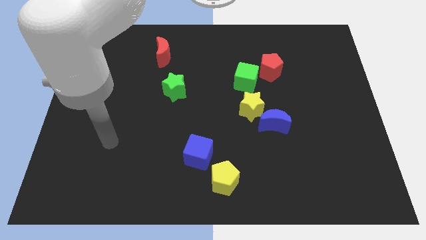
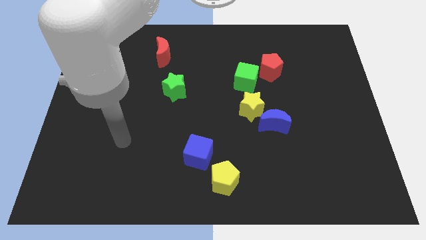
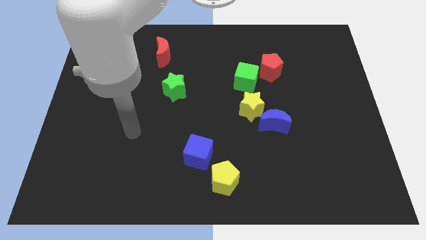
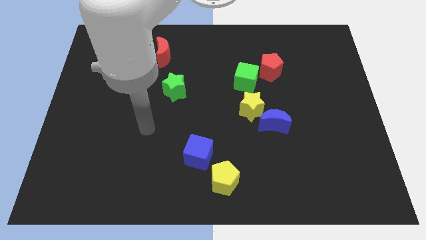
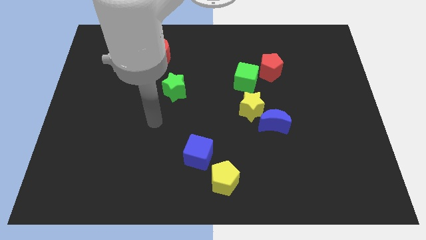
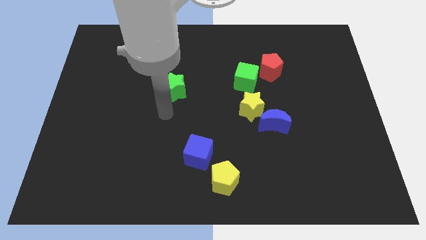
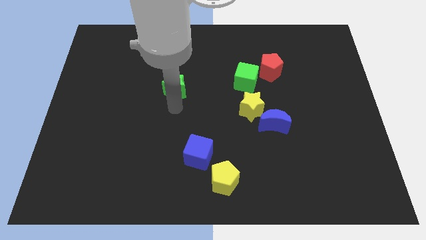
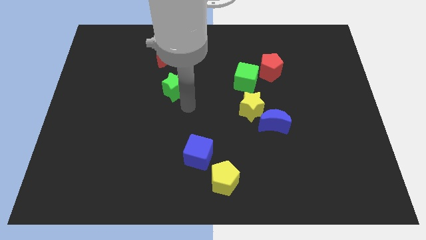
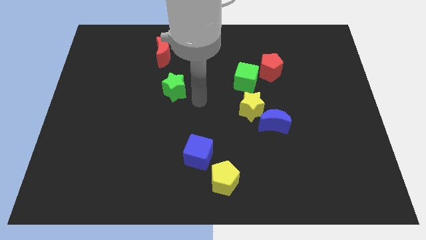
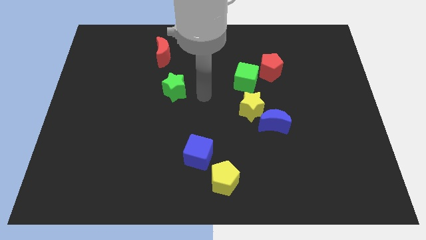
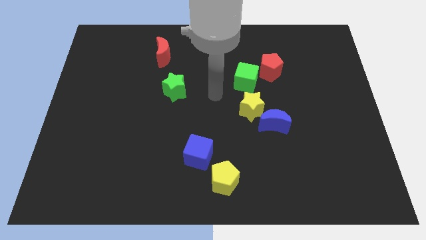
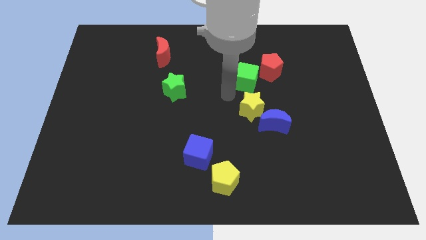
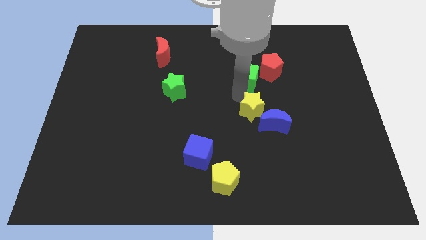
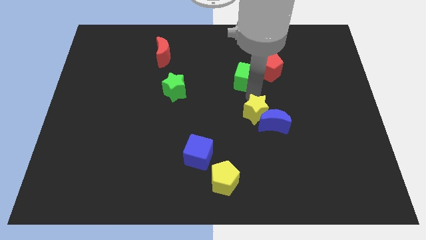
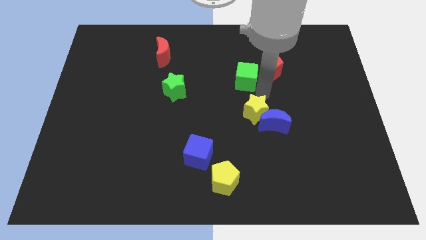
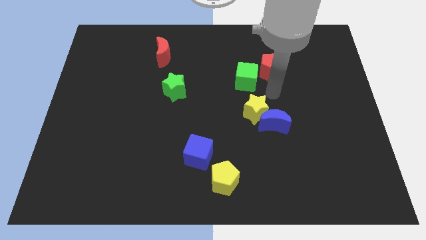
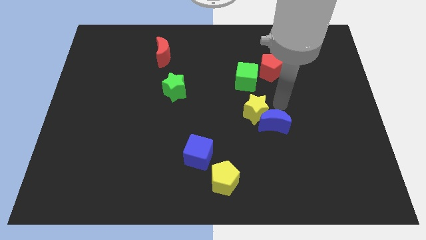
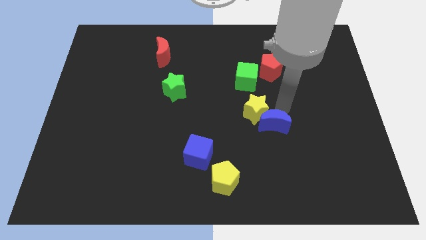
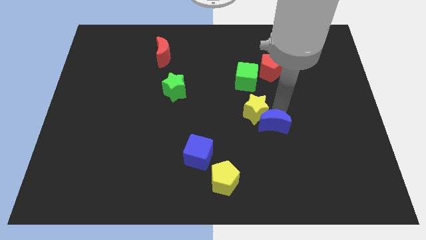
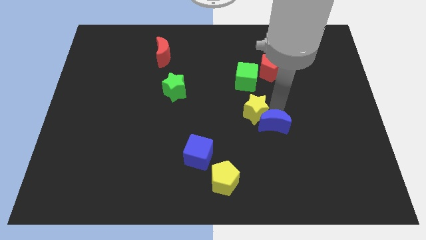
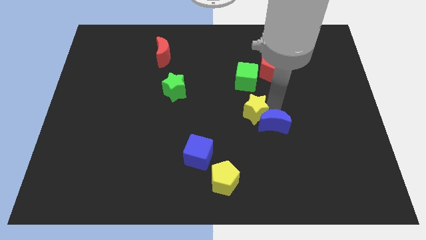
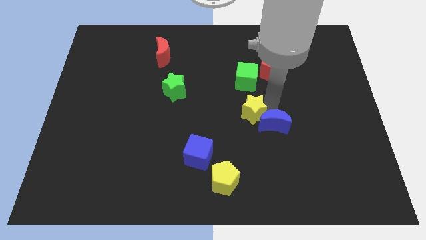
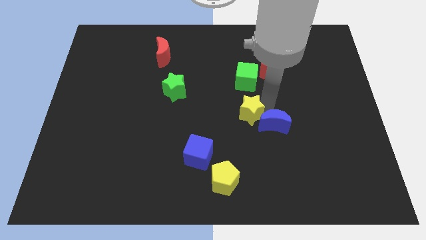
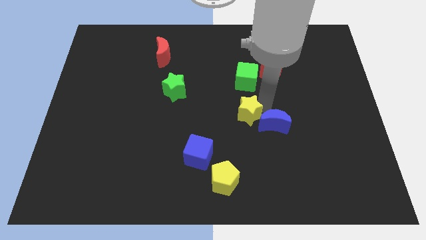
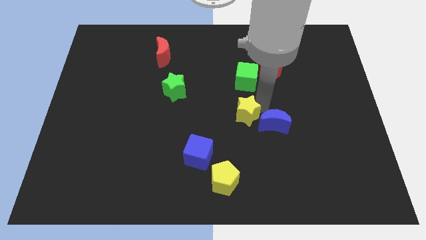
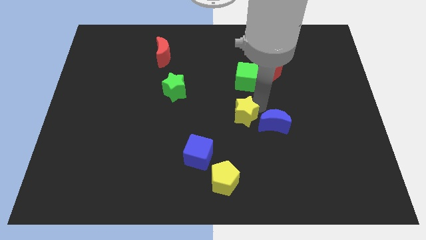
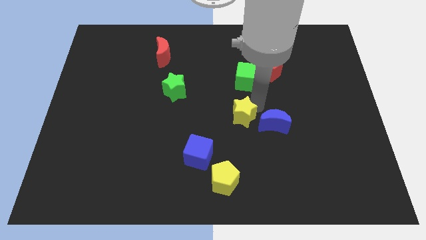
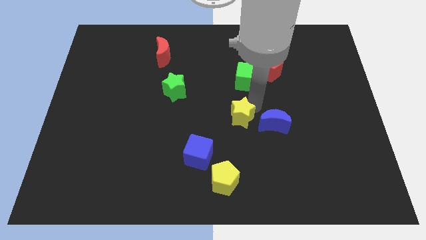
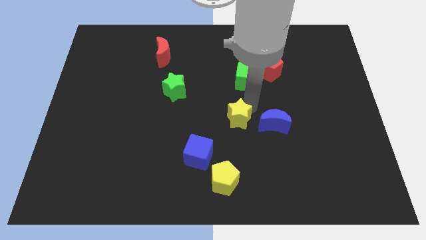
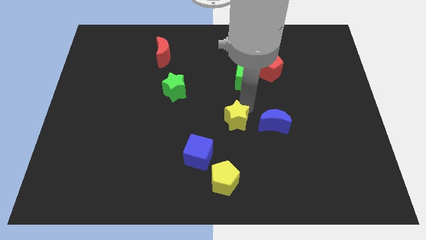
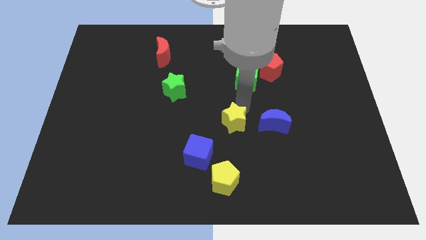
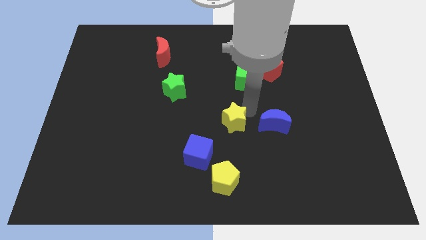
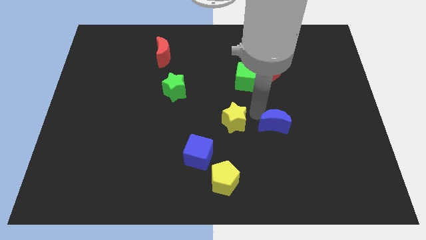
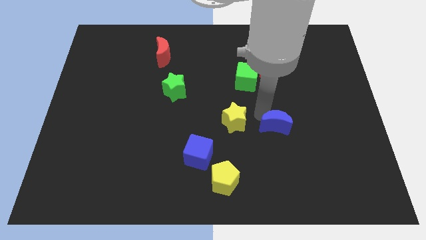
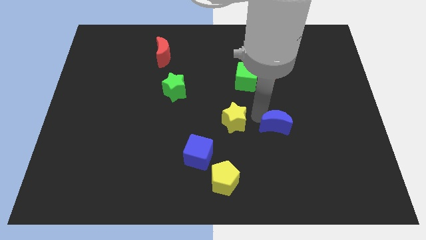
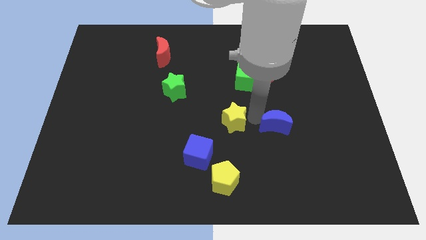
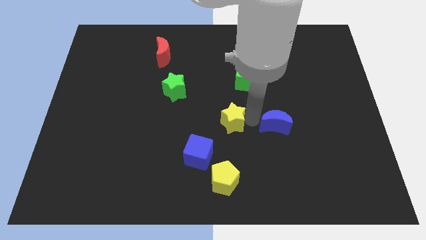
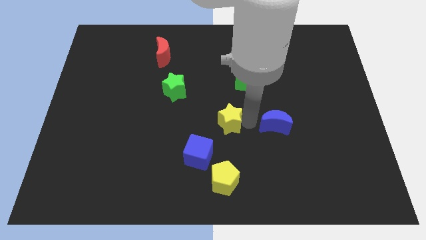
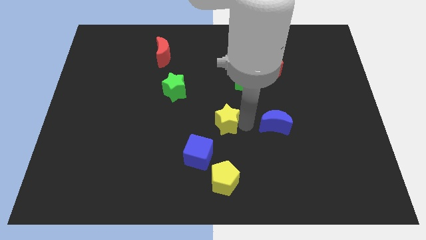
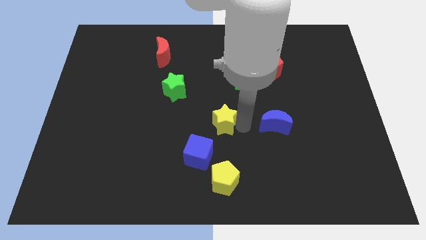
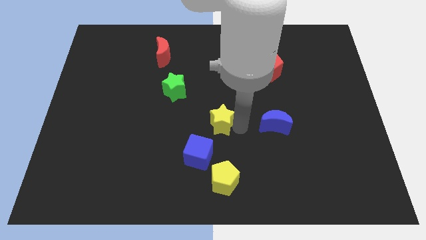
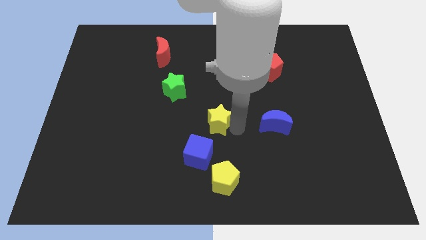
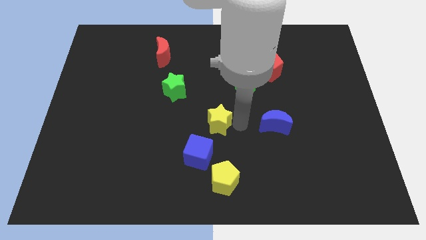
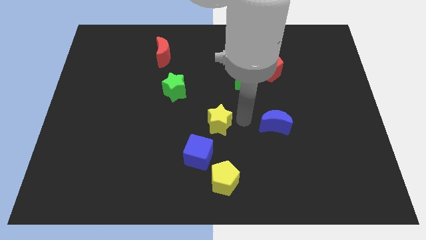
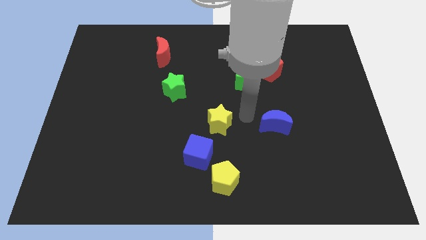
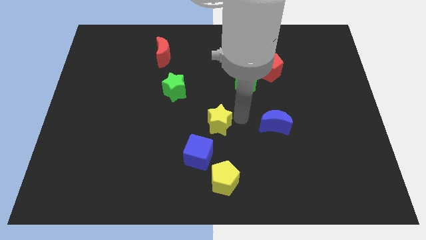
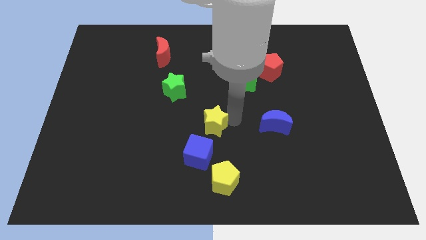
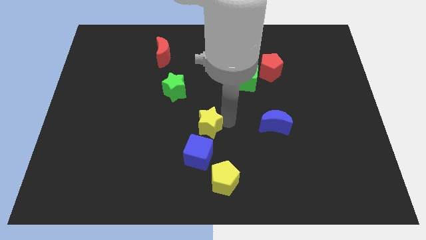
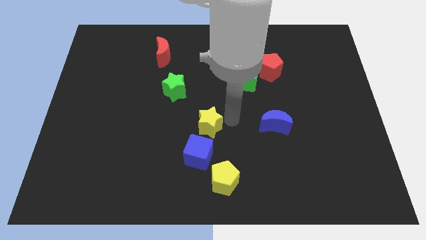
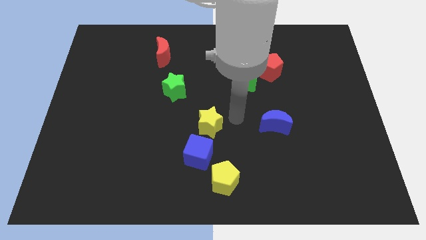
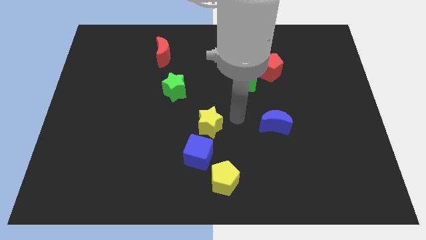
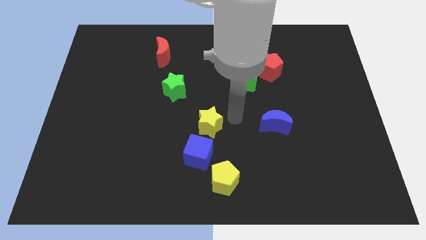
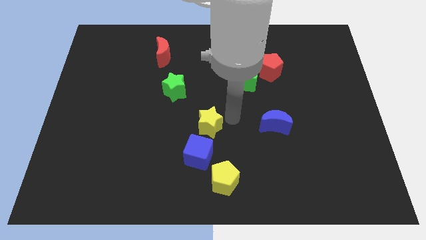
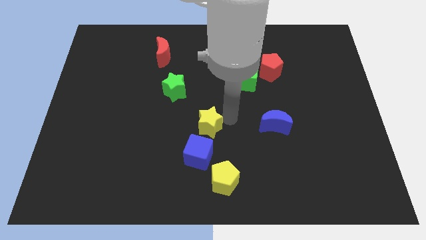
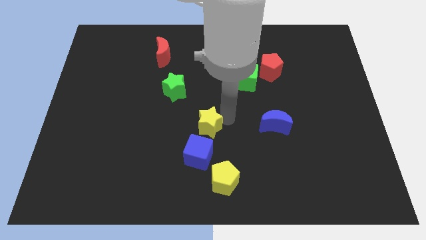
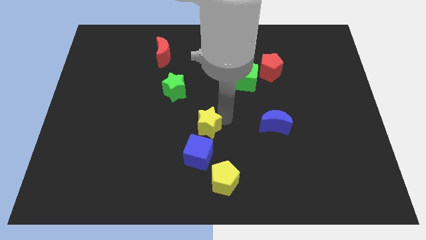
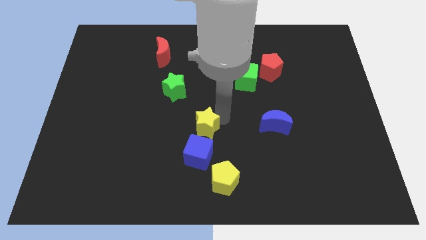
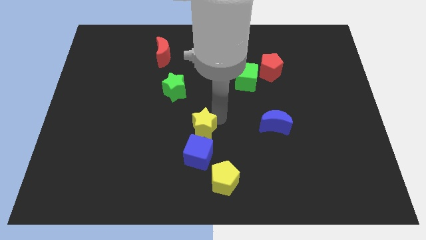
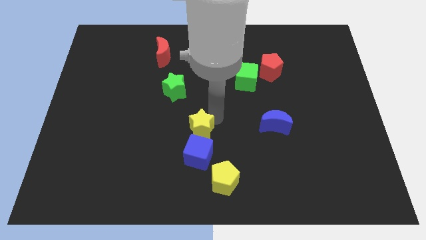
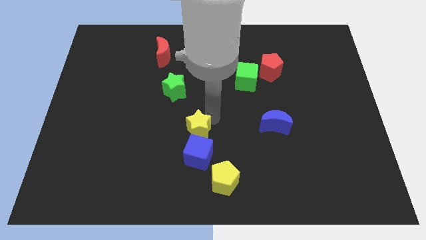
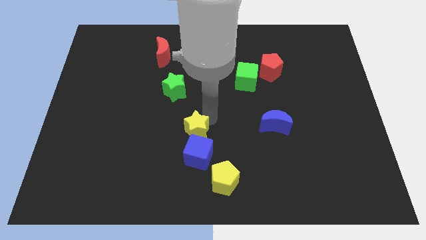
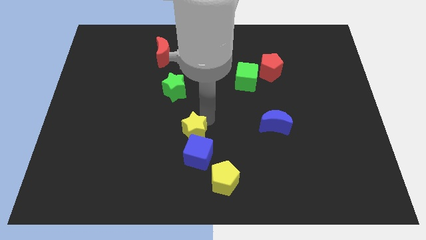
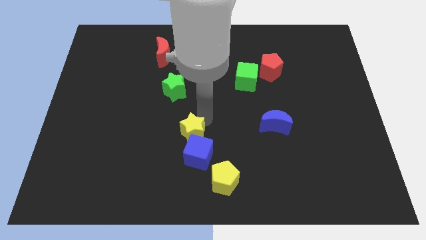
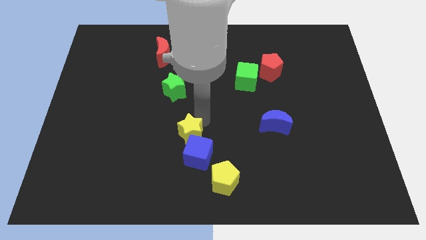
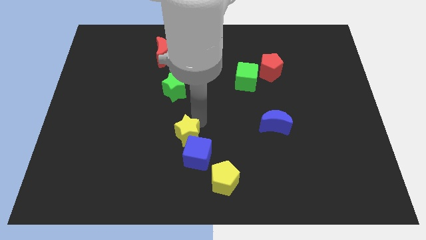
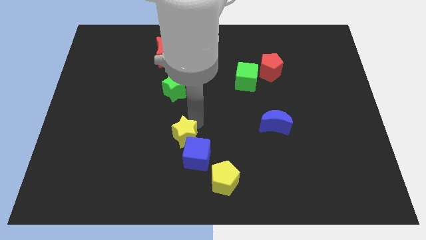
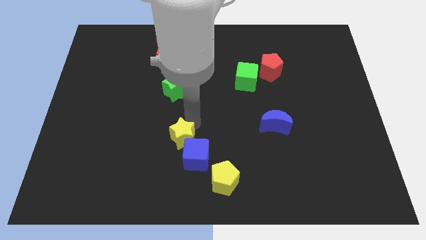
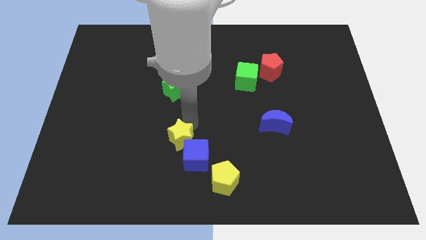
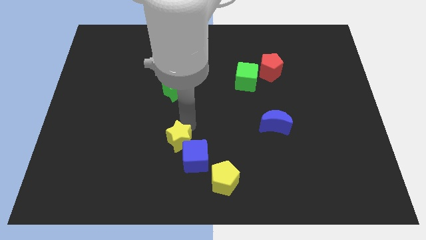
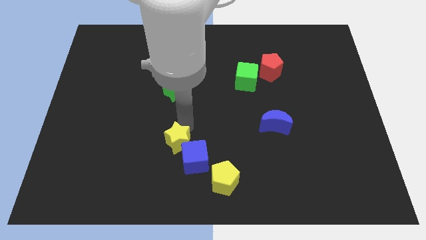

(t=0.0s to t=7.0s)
push the yellow star left of the blue cube
